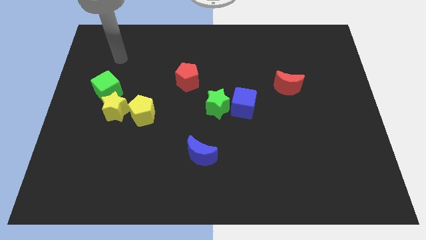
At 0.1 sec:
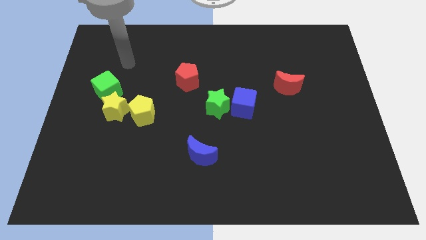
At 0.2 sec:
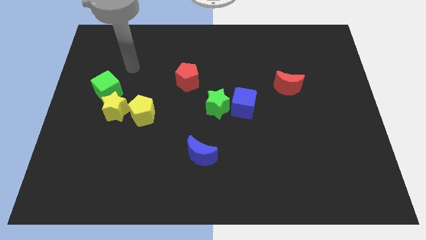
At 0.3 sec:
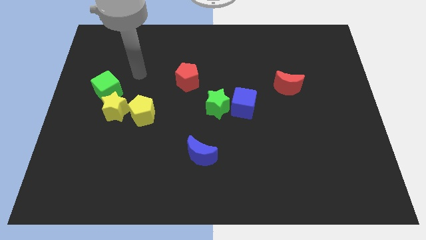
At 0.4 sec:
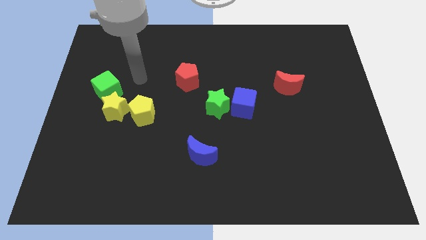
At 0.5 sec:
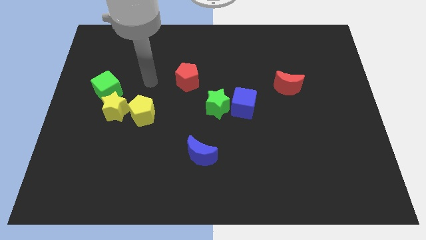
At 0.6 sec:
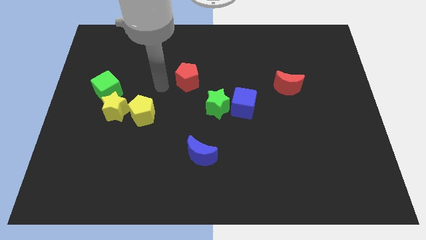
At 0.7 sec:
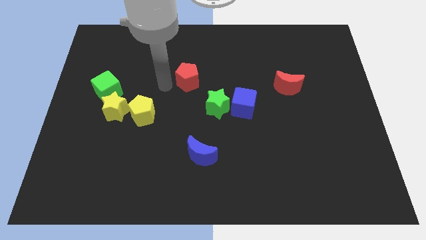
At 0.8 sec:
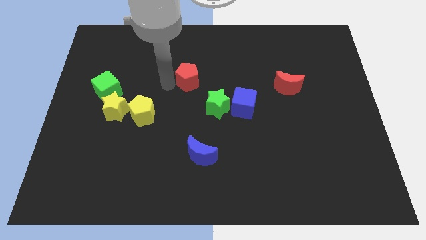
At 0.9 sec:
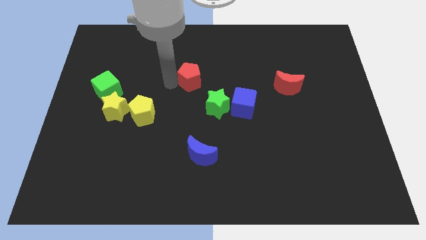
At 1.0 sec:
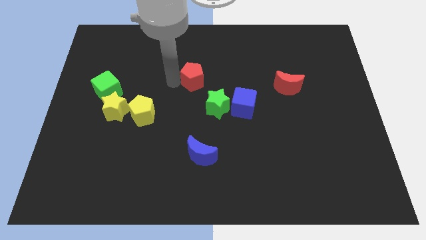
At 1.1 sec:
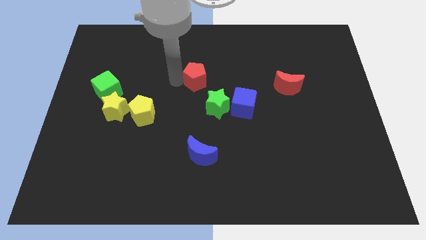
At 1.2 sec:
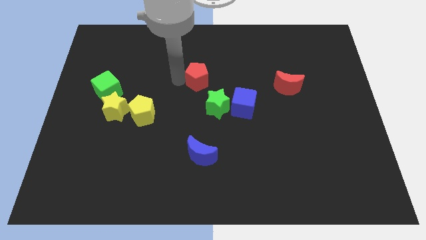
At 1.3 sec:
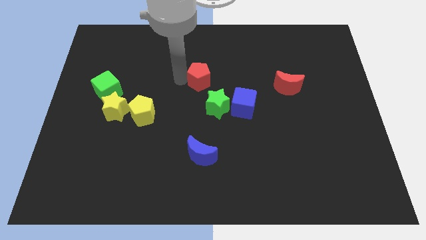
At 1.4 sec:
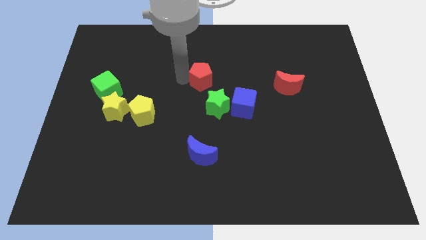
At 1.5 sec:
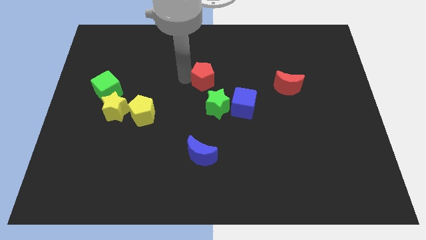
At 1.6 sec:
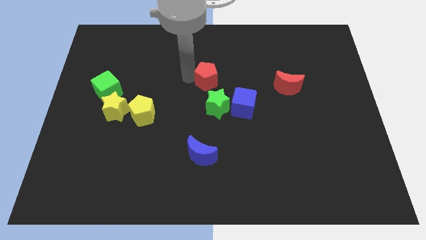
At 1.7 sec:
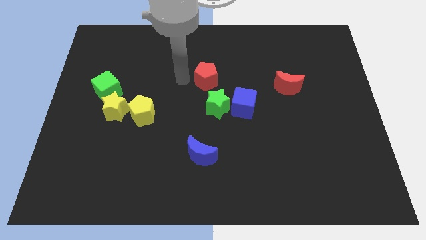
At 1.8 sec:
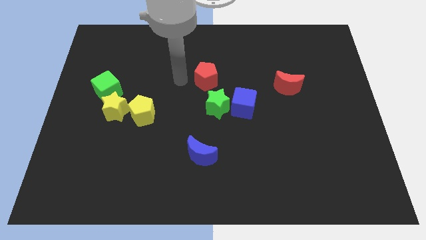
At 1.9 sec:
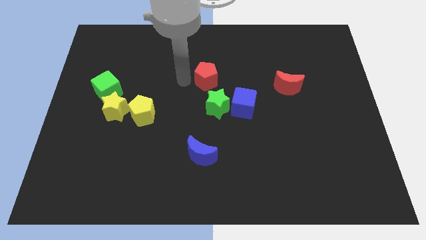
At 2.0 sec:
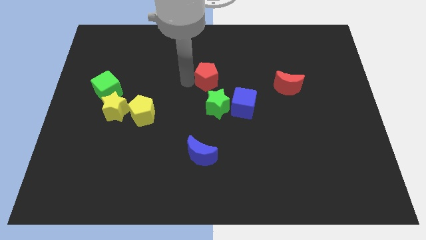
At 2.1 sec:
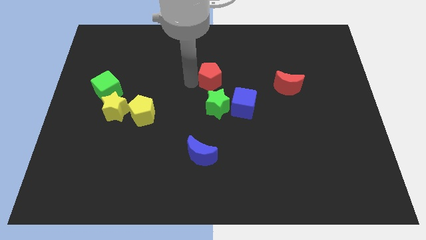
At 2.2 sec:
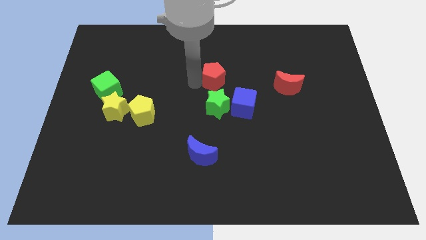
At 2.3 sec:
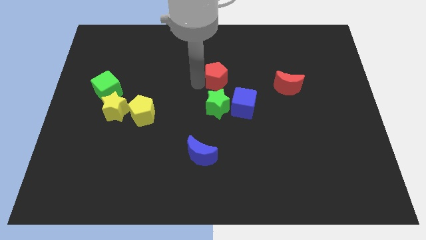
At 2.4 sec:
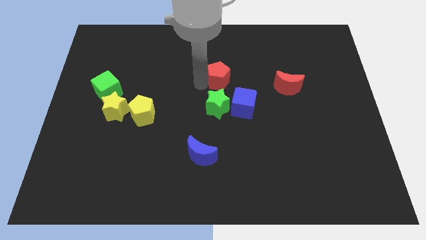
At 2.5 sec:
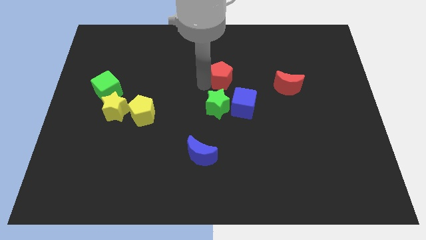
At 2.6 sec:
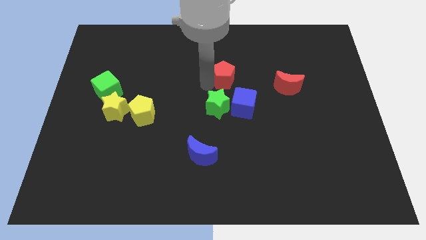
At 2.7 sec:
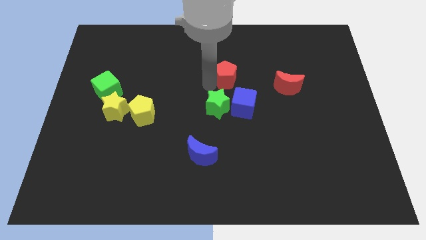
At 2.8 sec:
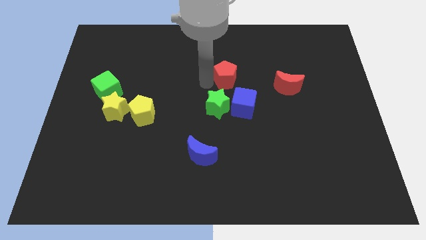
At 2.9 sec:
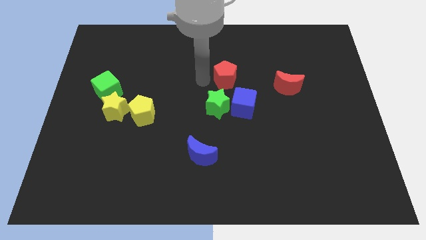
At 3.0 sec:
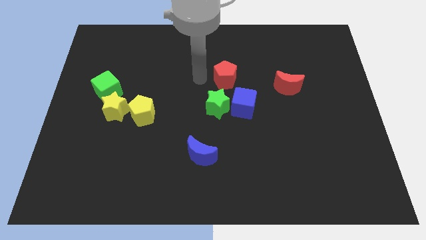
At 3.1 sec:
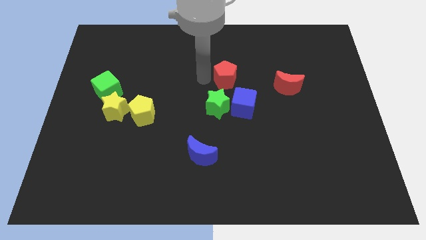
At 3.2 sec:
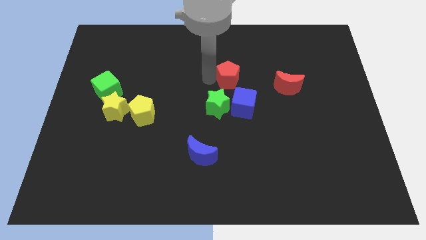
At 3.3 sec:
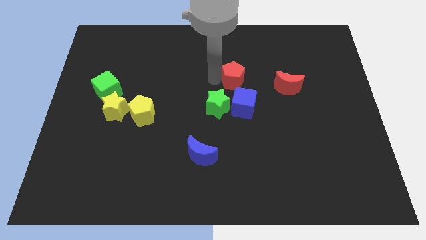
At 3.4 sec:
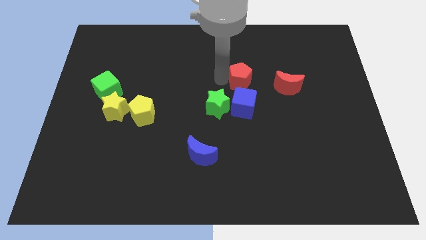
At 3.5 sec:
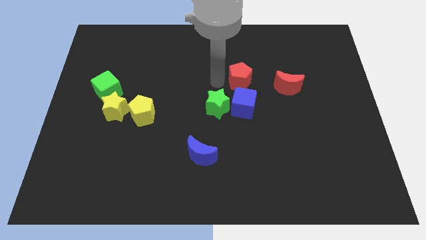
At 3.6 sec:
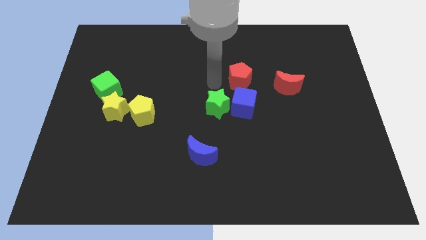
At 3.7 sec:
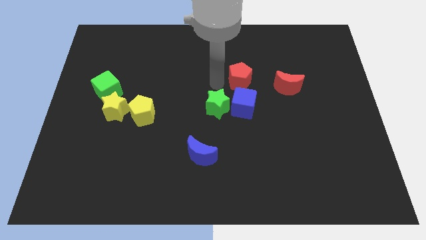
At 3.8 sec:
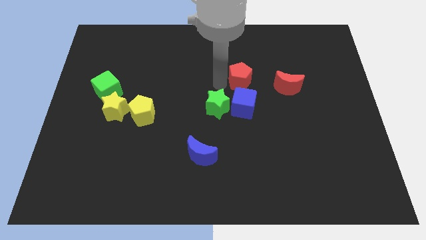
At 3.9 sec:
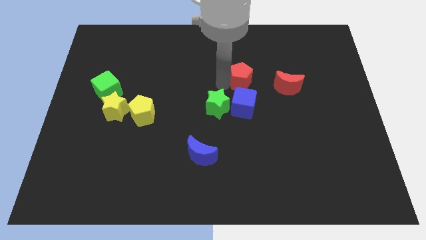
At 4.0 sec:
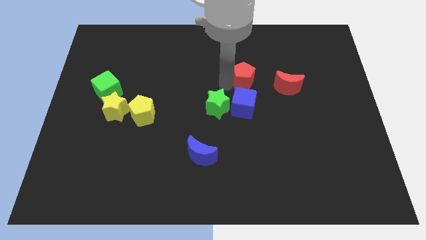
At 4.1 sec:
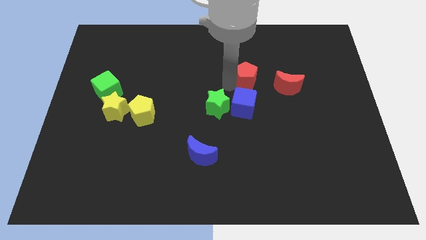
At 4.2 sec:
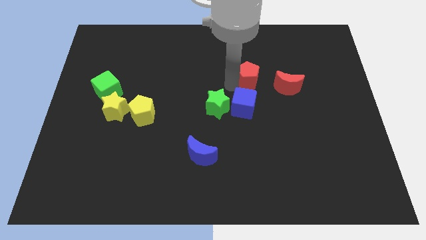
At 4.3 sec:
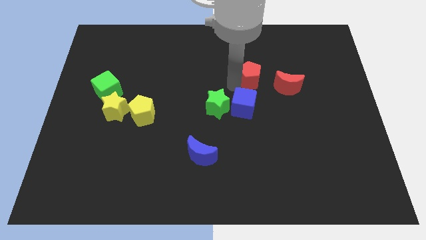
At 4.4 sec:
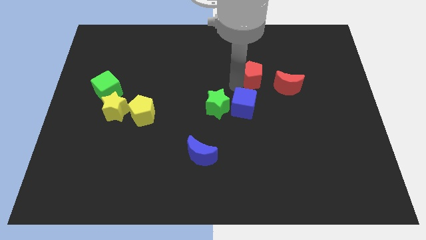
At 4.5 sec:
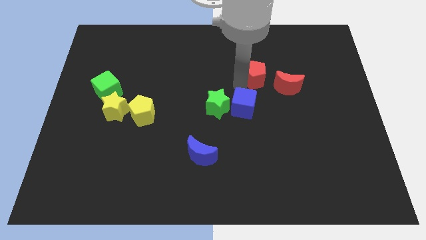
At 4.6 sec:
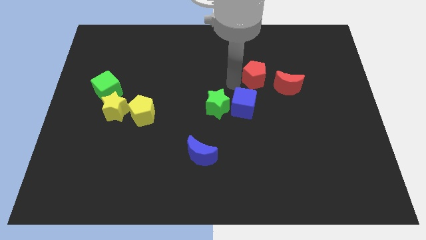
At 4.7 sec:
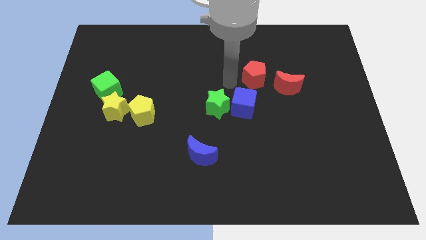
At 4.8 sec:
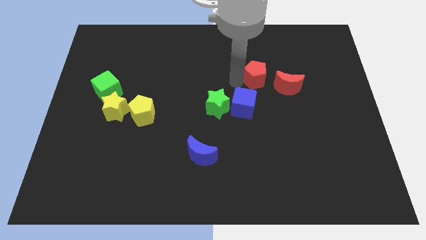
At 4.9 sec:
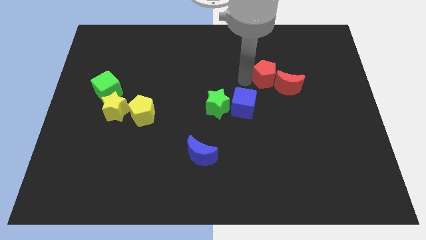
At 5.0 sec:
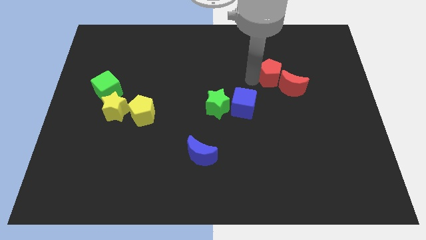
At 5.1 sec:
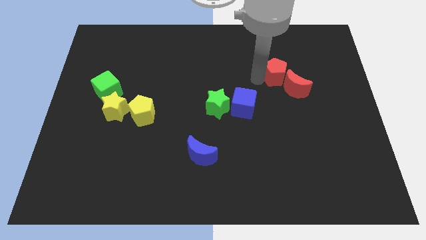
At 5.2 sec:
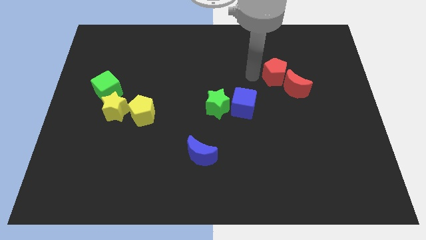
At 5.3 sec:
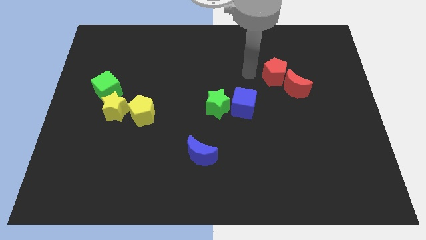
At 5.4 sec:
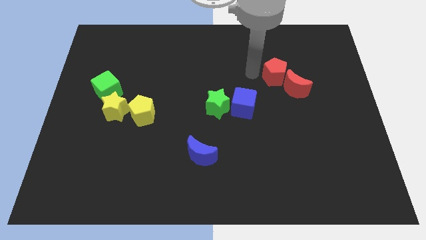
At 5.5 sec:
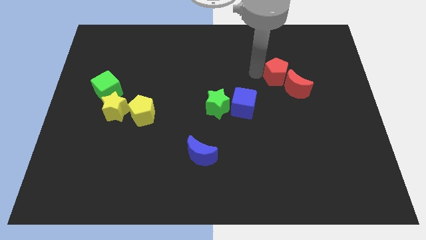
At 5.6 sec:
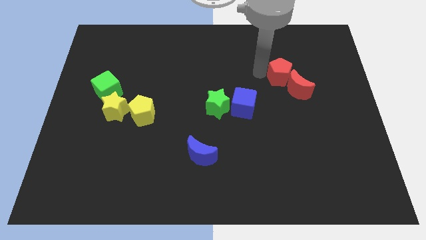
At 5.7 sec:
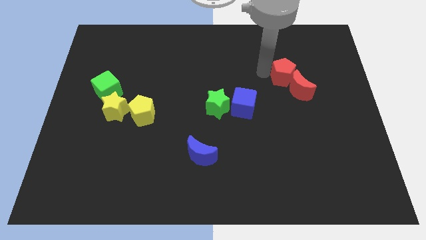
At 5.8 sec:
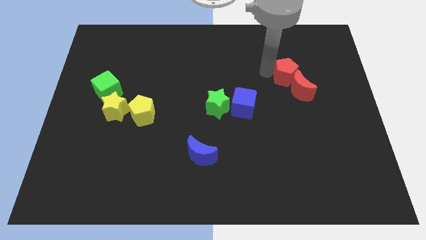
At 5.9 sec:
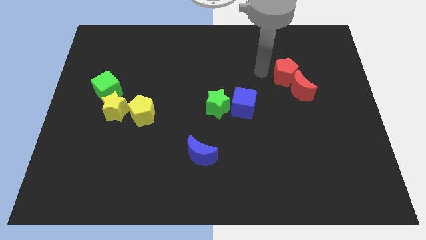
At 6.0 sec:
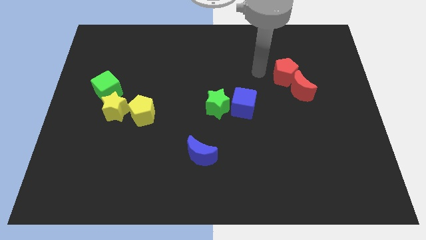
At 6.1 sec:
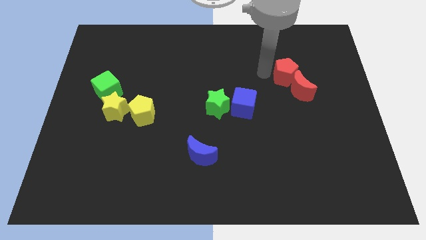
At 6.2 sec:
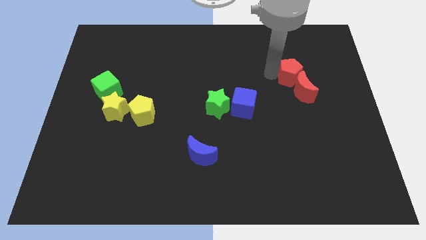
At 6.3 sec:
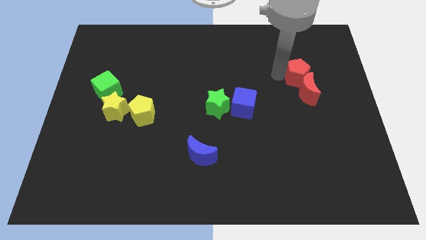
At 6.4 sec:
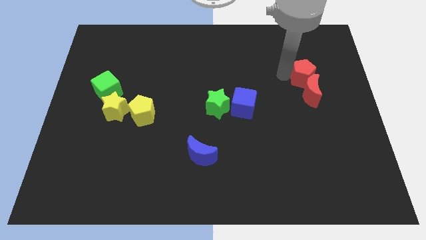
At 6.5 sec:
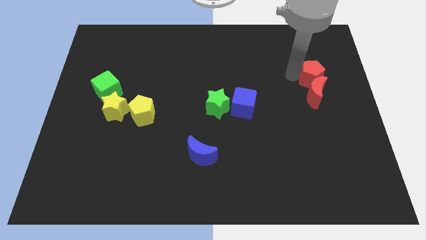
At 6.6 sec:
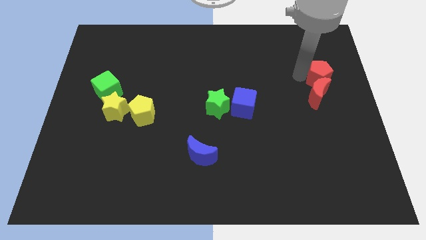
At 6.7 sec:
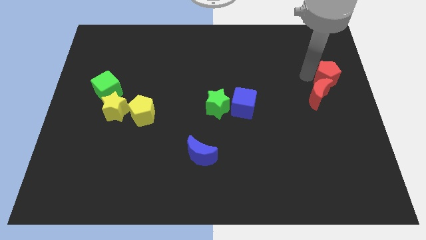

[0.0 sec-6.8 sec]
push the red pentagon to the center right
